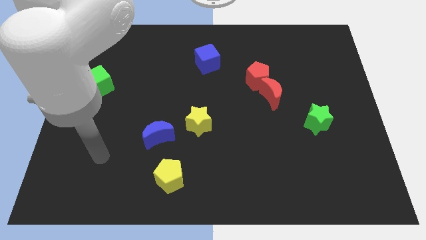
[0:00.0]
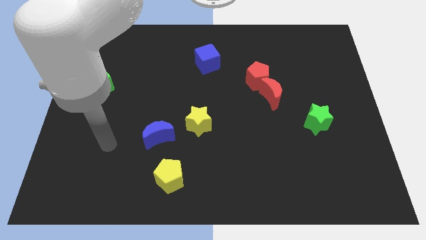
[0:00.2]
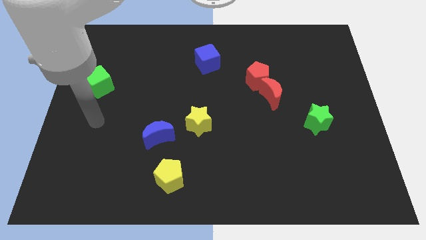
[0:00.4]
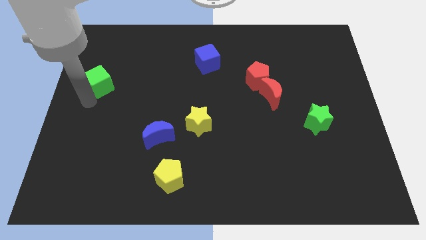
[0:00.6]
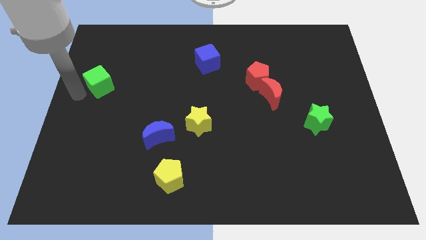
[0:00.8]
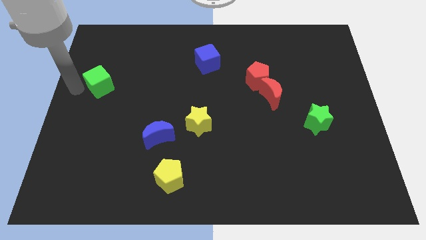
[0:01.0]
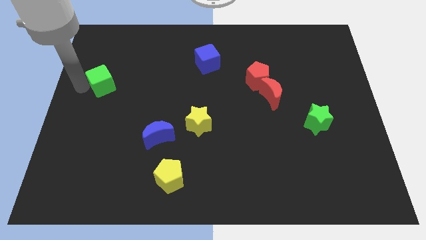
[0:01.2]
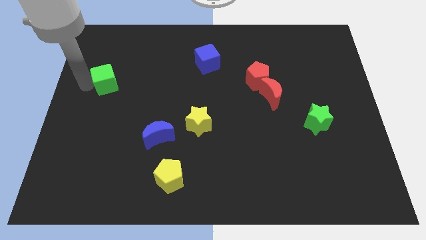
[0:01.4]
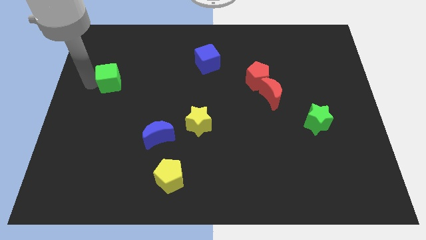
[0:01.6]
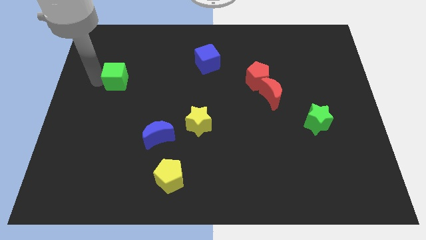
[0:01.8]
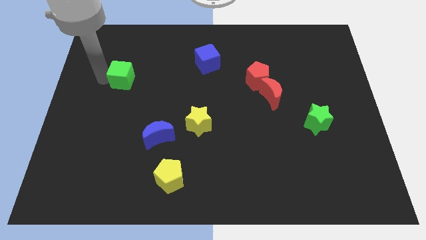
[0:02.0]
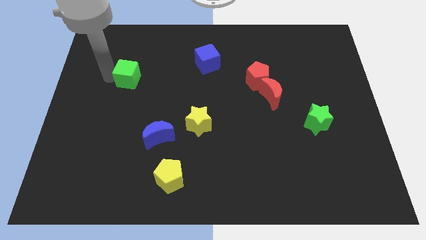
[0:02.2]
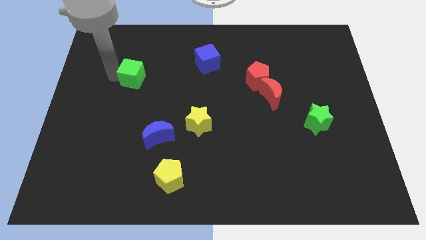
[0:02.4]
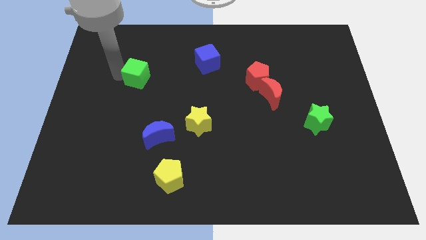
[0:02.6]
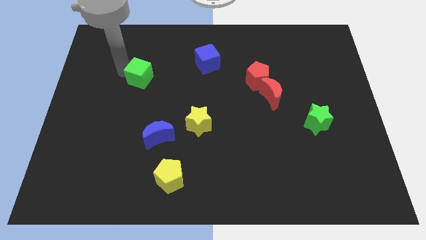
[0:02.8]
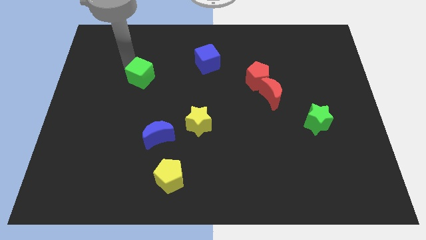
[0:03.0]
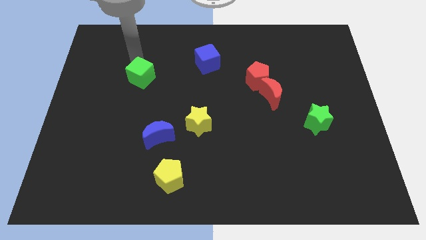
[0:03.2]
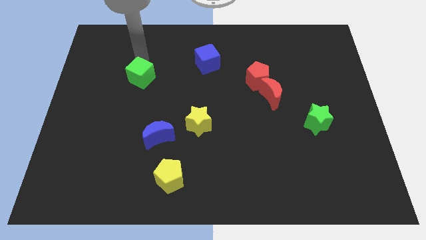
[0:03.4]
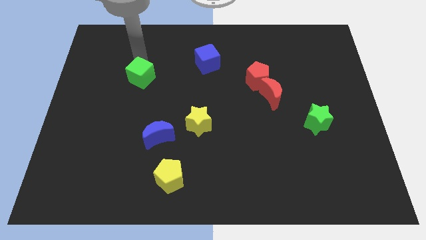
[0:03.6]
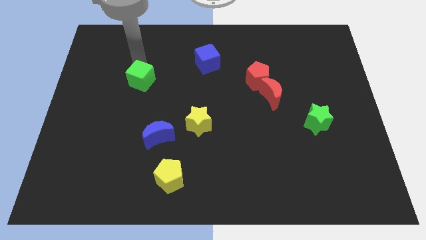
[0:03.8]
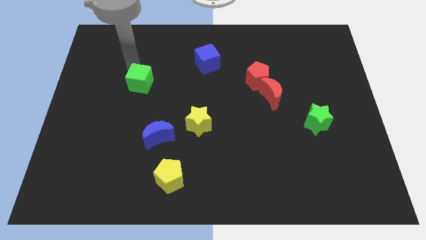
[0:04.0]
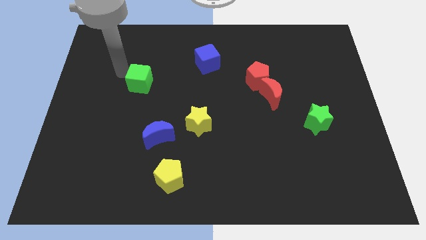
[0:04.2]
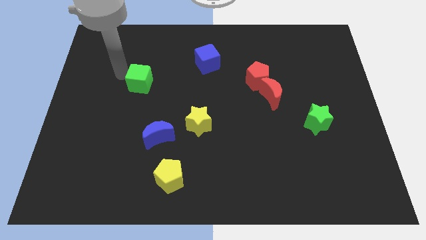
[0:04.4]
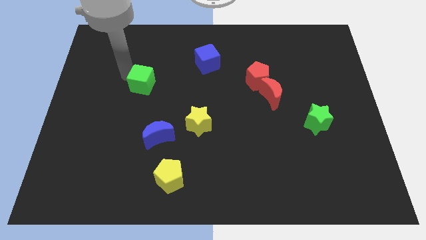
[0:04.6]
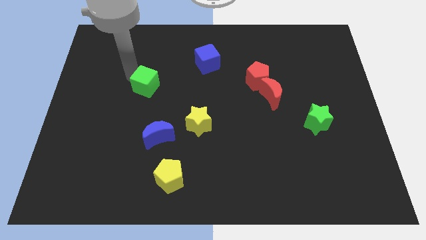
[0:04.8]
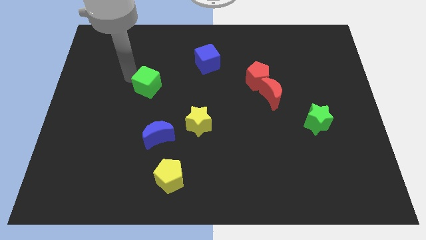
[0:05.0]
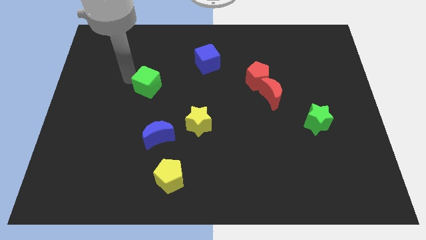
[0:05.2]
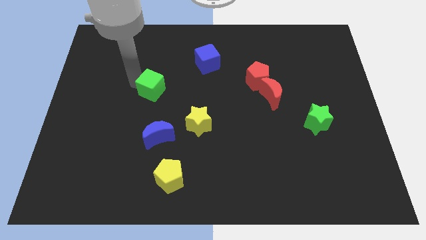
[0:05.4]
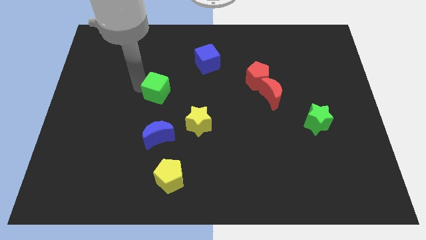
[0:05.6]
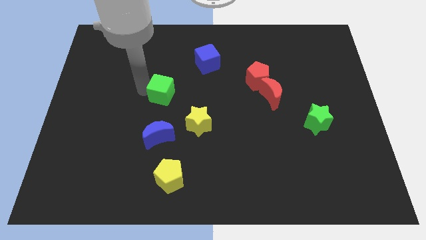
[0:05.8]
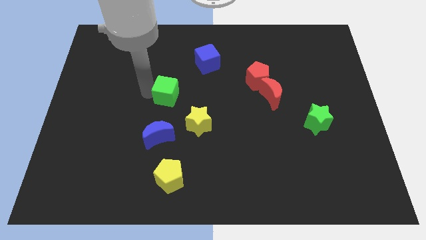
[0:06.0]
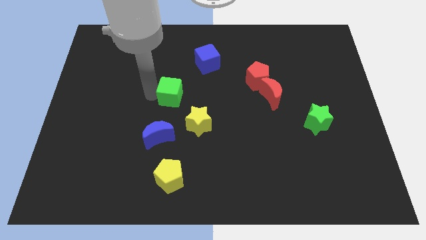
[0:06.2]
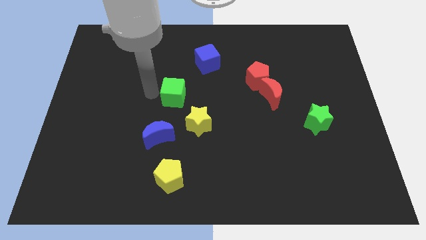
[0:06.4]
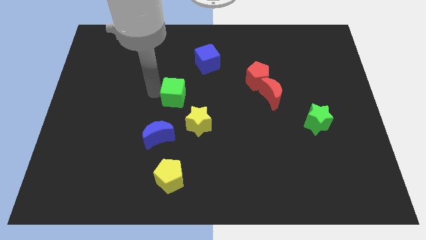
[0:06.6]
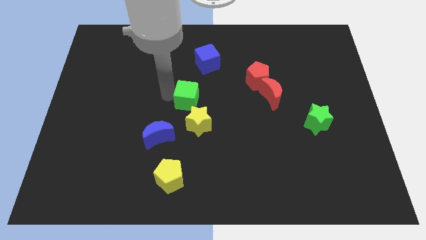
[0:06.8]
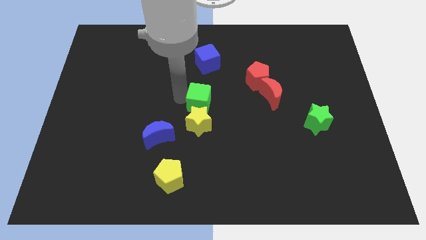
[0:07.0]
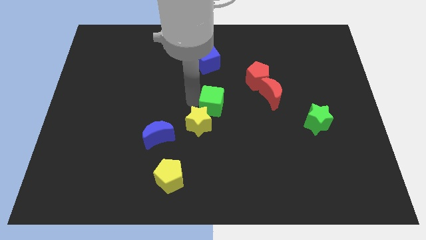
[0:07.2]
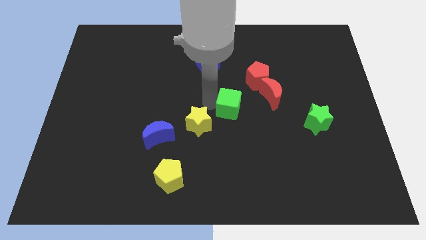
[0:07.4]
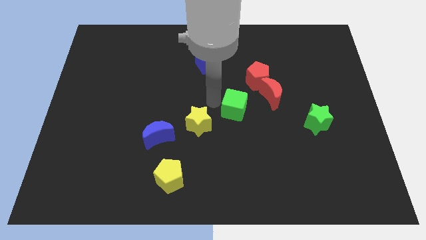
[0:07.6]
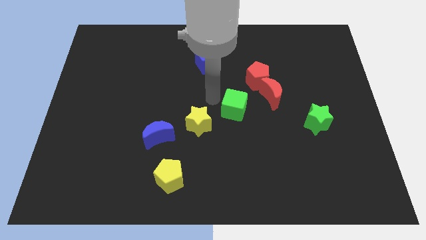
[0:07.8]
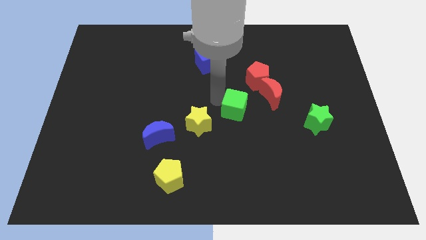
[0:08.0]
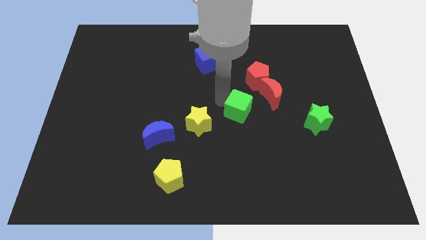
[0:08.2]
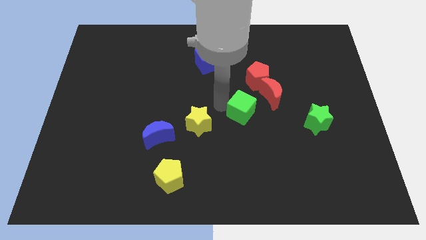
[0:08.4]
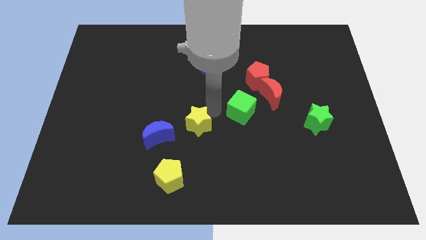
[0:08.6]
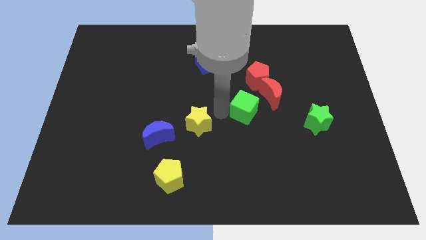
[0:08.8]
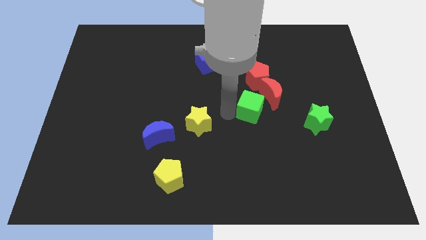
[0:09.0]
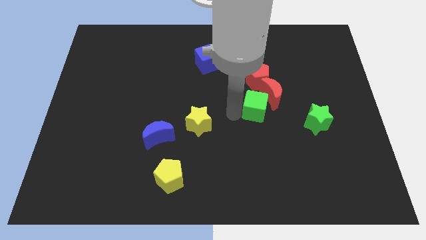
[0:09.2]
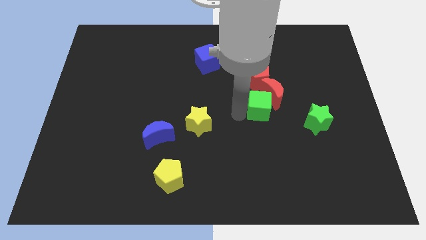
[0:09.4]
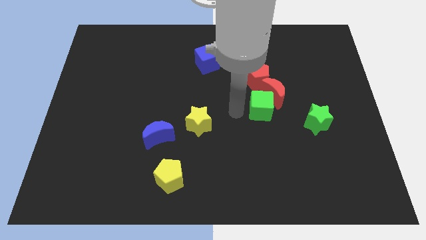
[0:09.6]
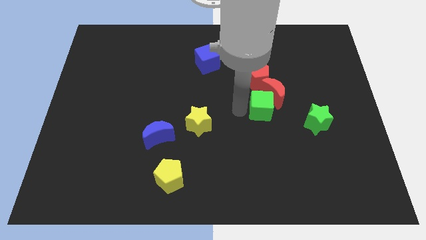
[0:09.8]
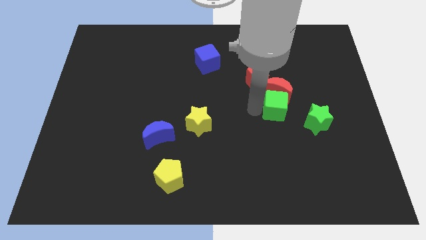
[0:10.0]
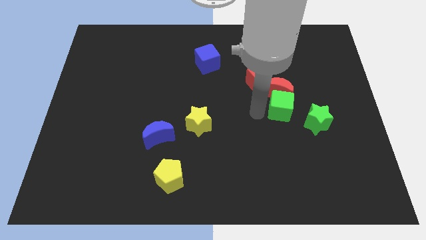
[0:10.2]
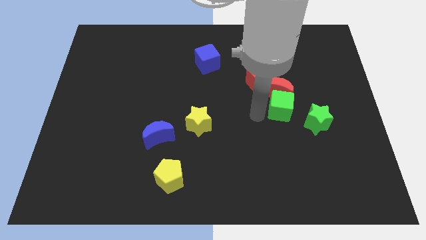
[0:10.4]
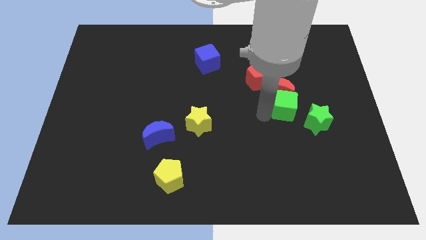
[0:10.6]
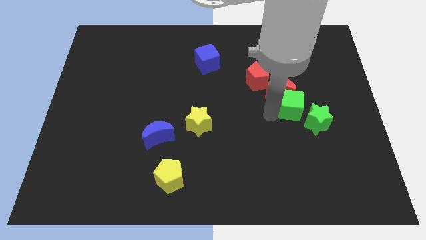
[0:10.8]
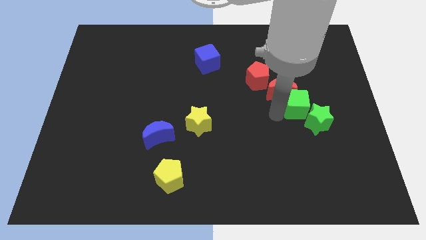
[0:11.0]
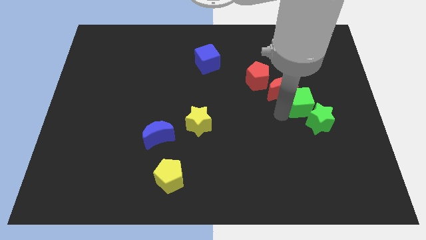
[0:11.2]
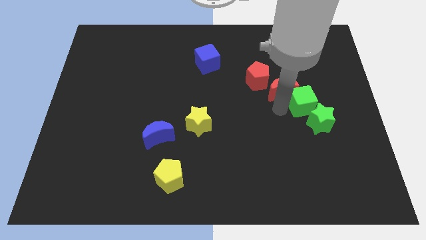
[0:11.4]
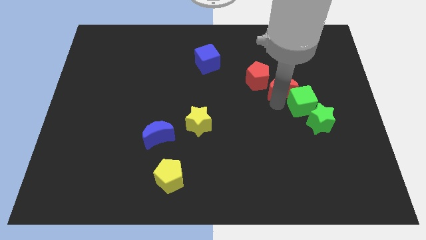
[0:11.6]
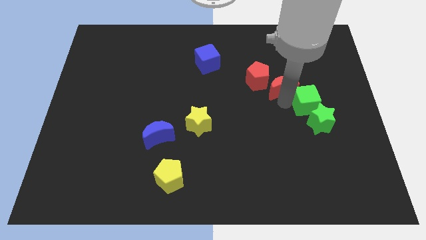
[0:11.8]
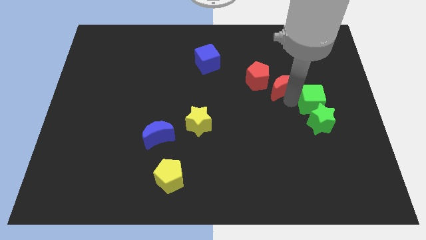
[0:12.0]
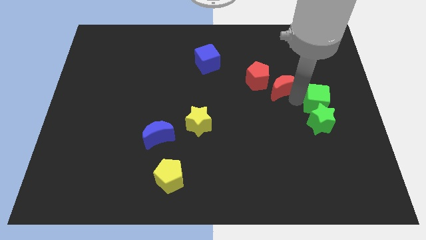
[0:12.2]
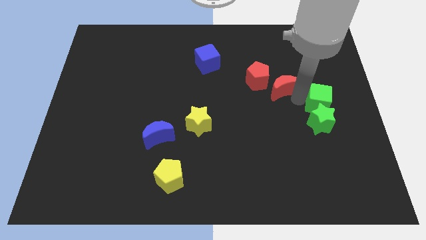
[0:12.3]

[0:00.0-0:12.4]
slide the green cube to the right side
